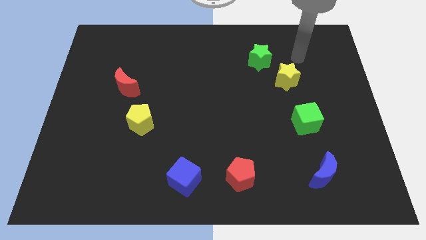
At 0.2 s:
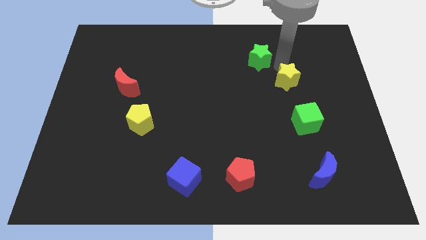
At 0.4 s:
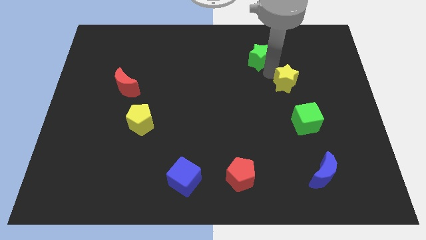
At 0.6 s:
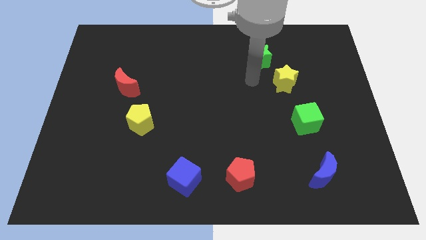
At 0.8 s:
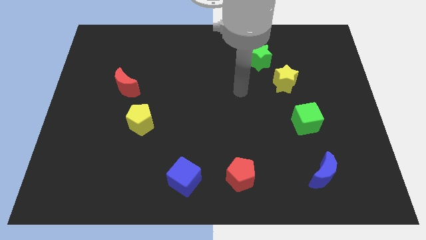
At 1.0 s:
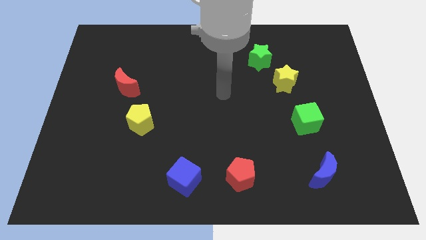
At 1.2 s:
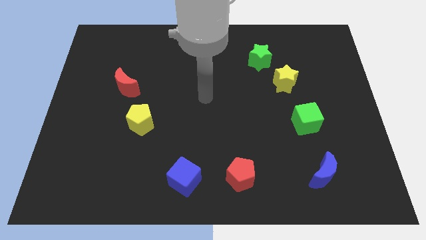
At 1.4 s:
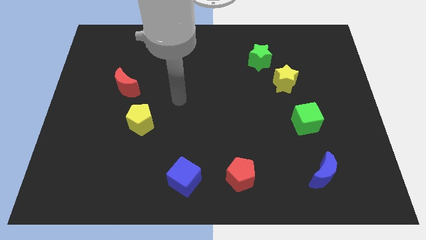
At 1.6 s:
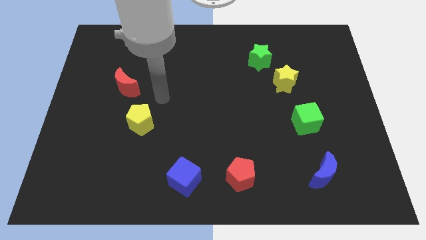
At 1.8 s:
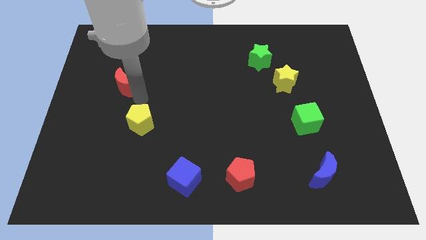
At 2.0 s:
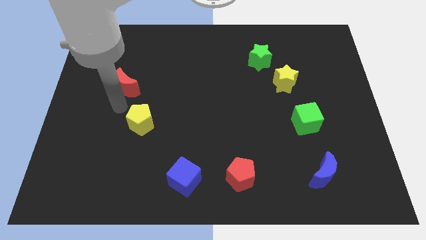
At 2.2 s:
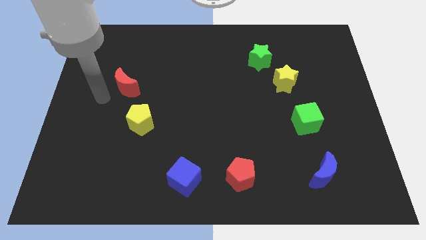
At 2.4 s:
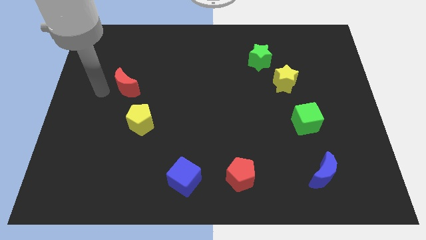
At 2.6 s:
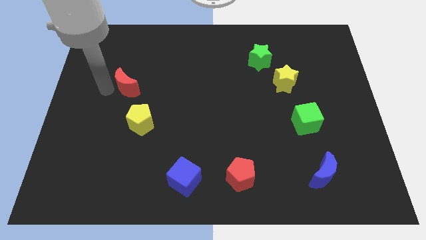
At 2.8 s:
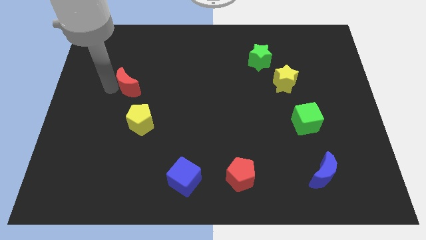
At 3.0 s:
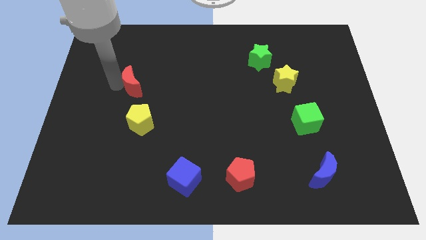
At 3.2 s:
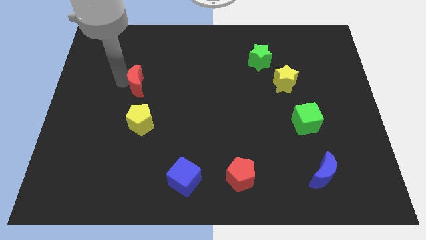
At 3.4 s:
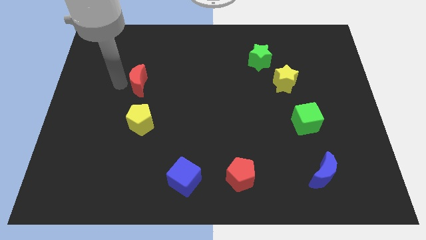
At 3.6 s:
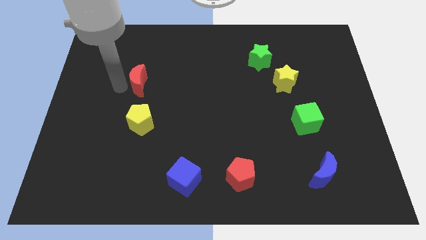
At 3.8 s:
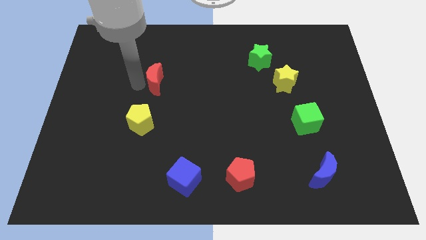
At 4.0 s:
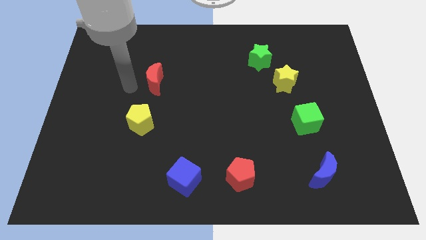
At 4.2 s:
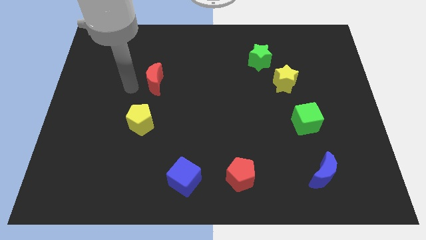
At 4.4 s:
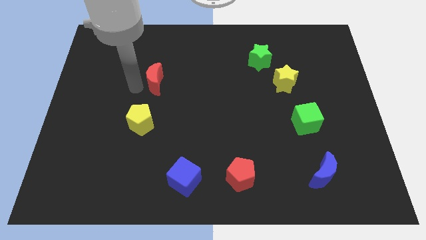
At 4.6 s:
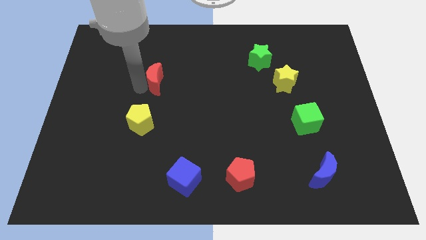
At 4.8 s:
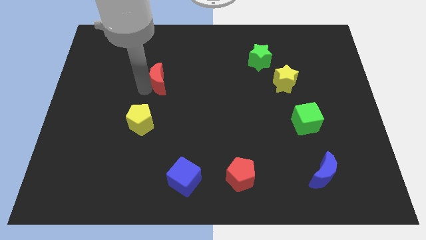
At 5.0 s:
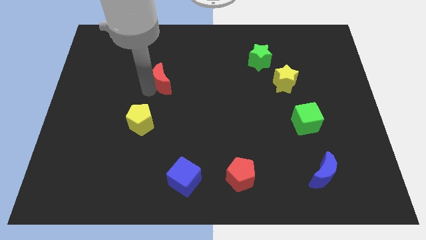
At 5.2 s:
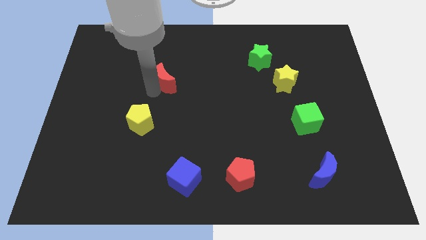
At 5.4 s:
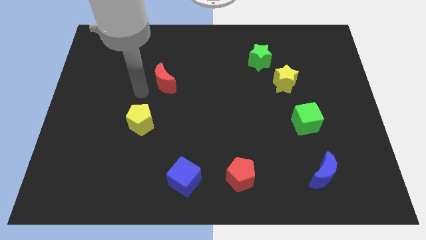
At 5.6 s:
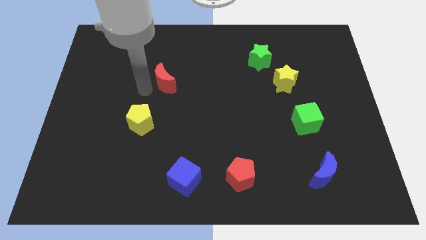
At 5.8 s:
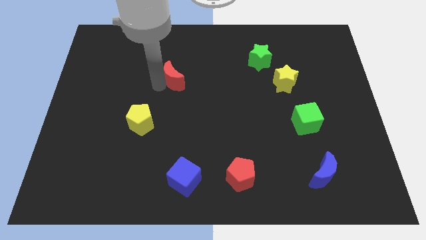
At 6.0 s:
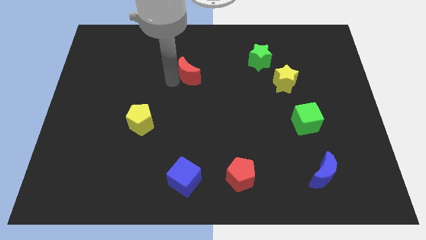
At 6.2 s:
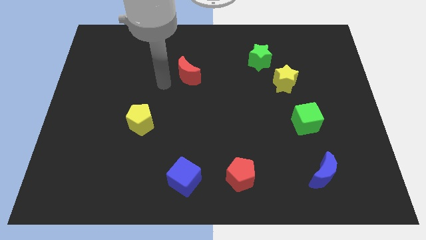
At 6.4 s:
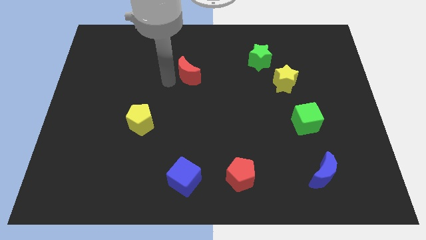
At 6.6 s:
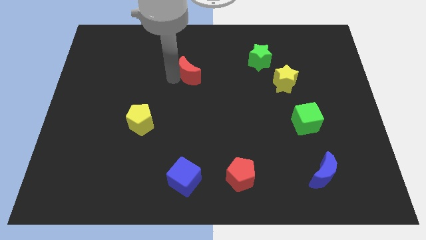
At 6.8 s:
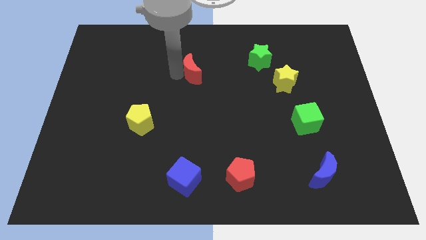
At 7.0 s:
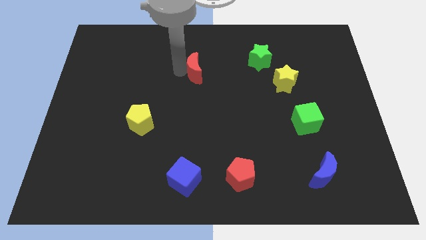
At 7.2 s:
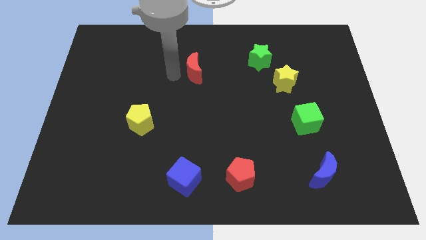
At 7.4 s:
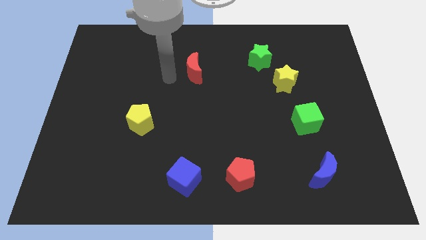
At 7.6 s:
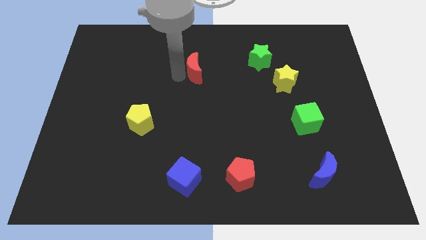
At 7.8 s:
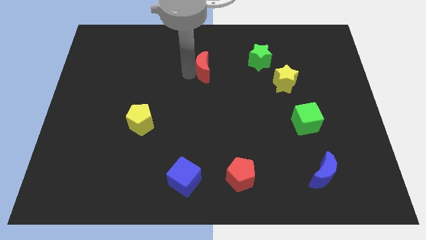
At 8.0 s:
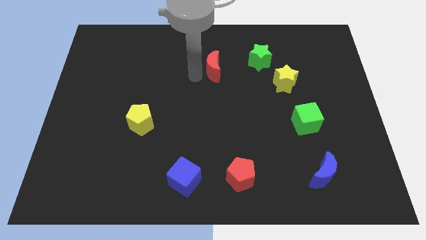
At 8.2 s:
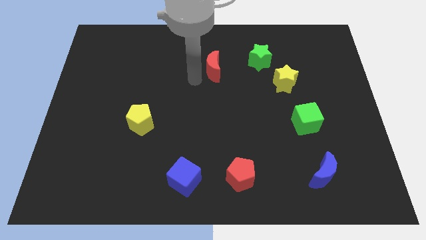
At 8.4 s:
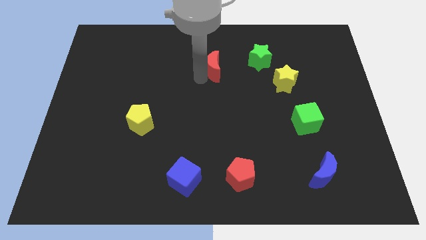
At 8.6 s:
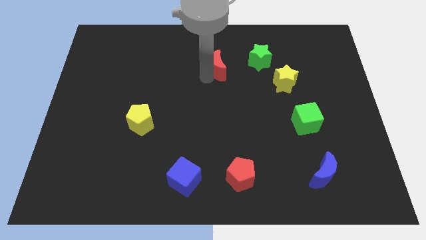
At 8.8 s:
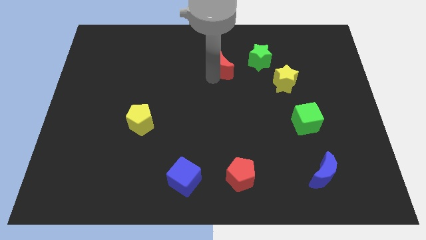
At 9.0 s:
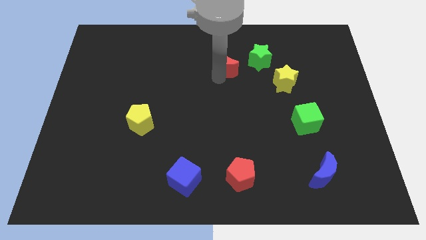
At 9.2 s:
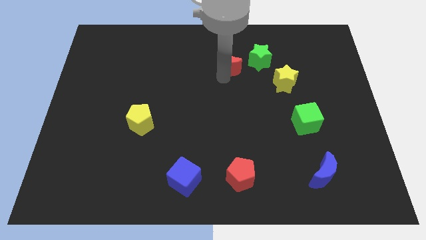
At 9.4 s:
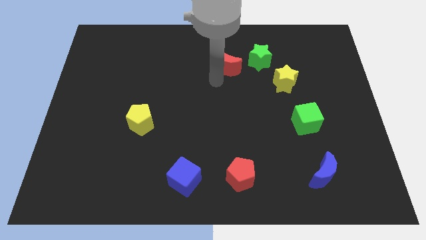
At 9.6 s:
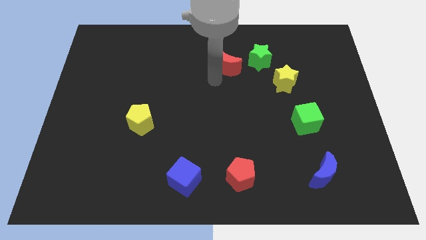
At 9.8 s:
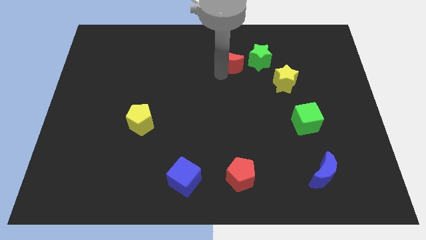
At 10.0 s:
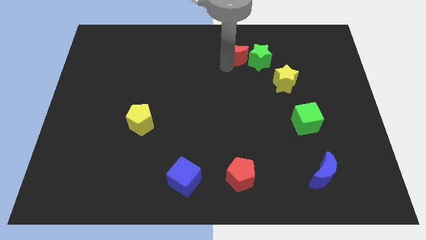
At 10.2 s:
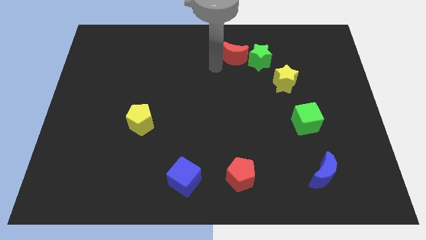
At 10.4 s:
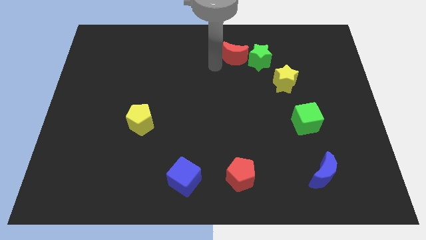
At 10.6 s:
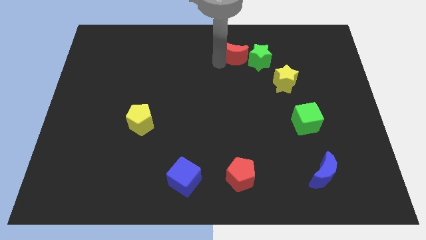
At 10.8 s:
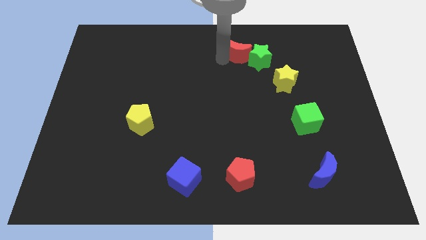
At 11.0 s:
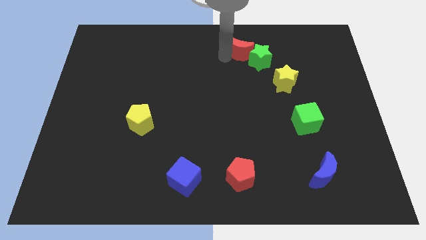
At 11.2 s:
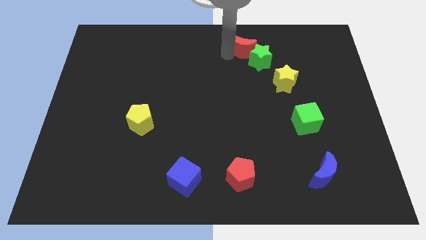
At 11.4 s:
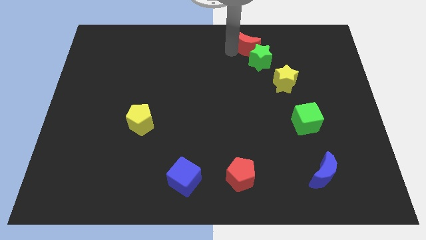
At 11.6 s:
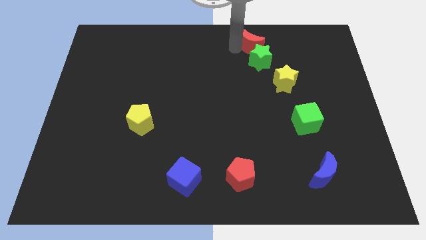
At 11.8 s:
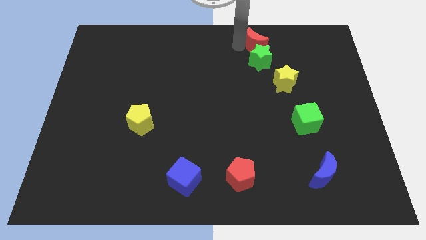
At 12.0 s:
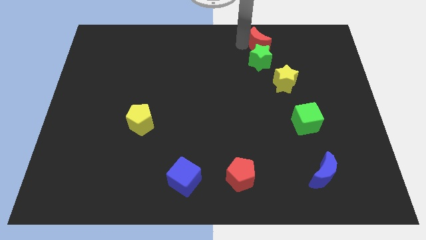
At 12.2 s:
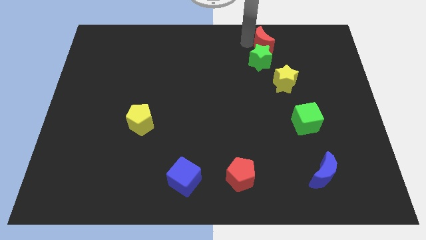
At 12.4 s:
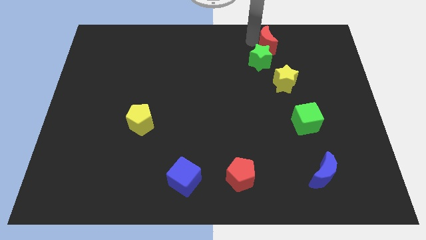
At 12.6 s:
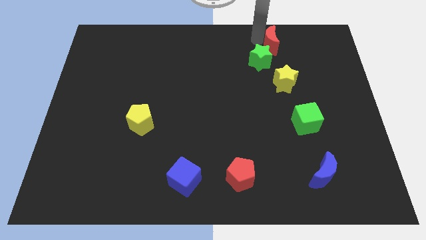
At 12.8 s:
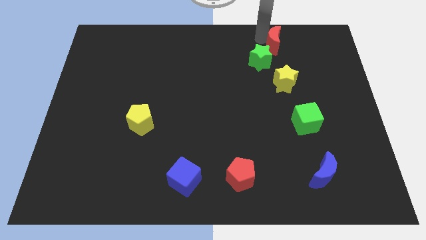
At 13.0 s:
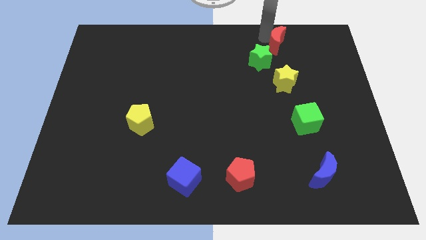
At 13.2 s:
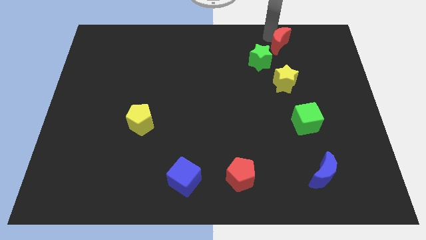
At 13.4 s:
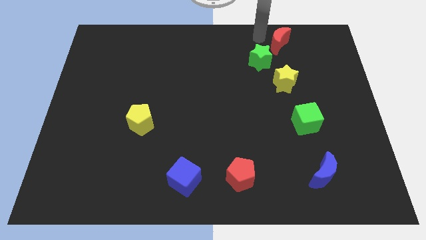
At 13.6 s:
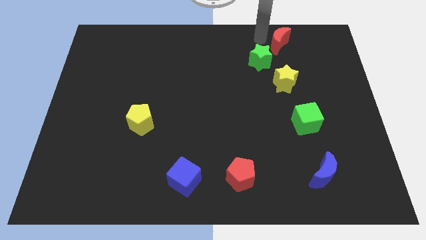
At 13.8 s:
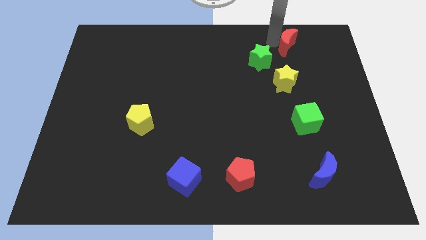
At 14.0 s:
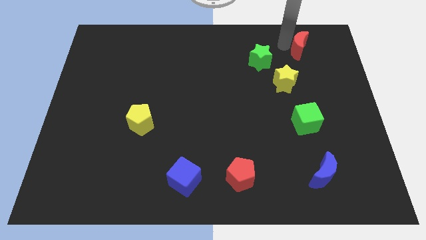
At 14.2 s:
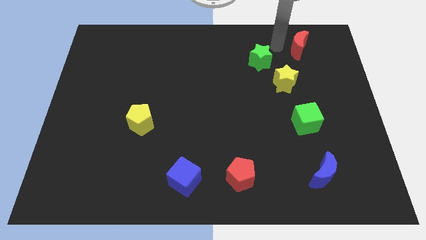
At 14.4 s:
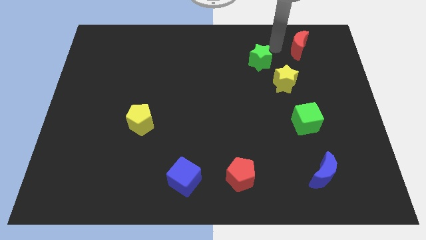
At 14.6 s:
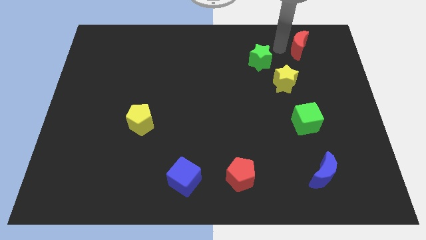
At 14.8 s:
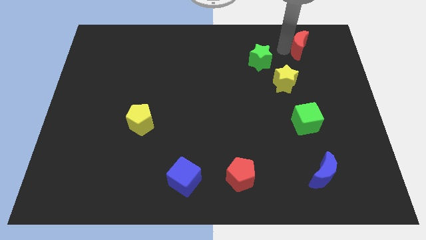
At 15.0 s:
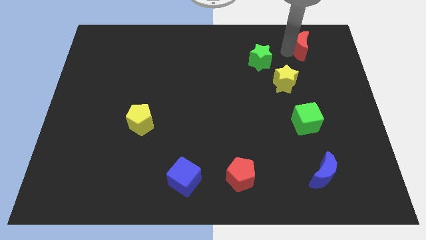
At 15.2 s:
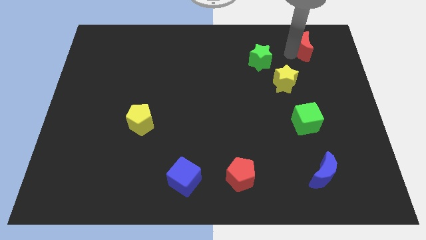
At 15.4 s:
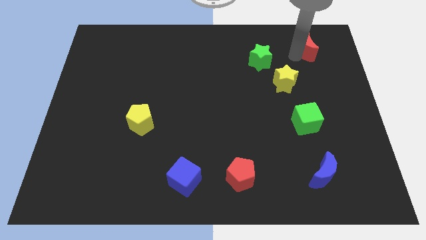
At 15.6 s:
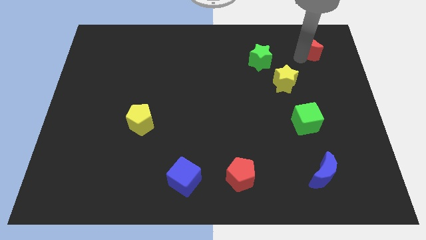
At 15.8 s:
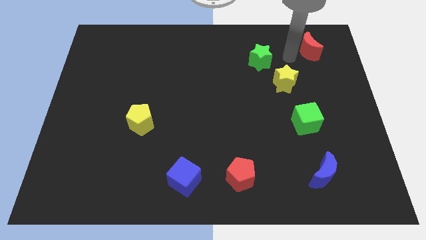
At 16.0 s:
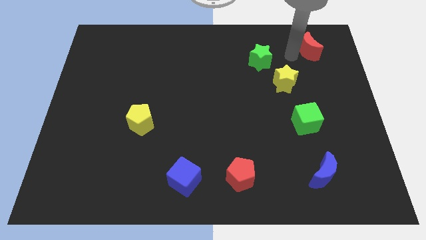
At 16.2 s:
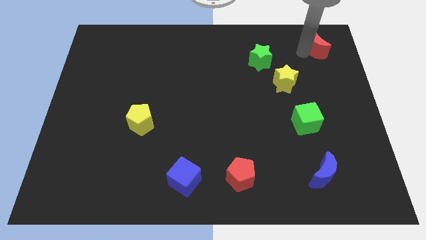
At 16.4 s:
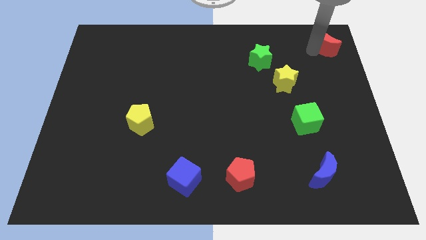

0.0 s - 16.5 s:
slide the red moon to the top right corner
